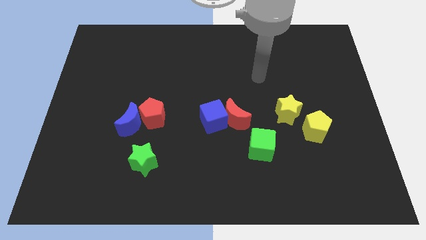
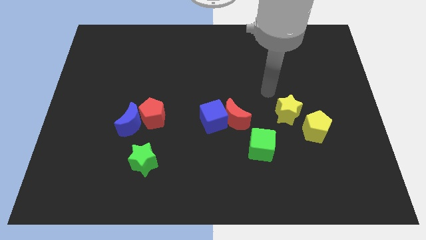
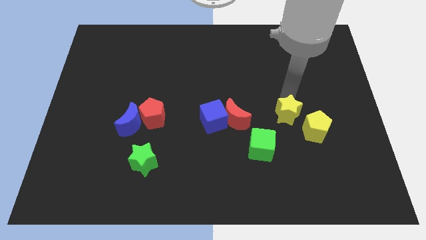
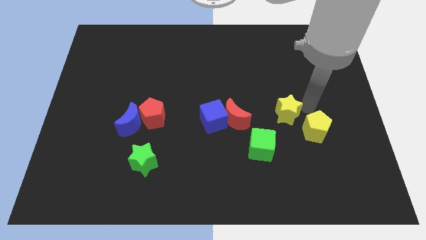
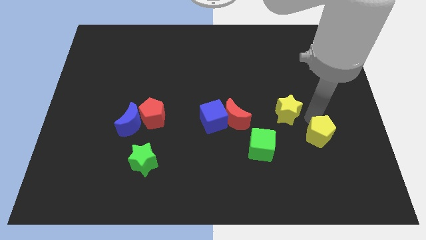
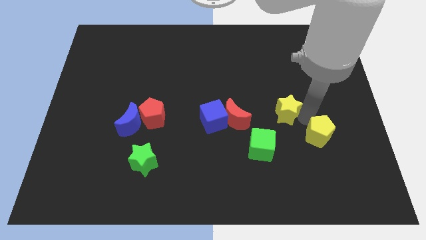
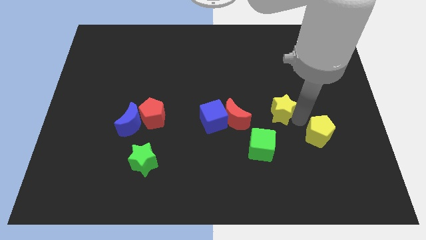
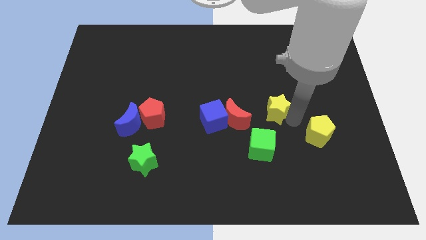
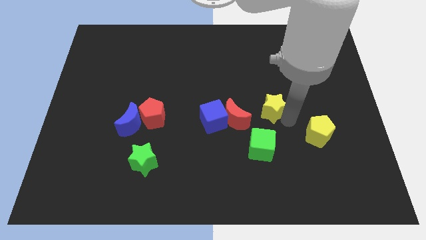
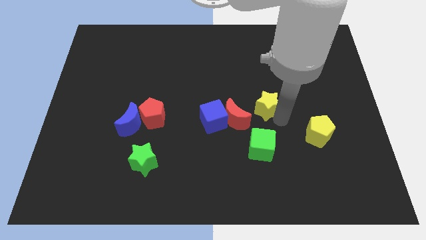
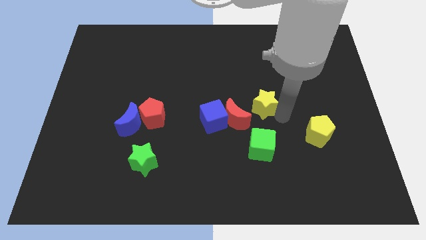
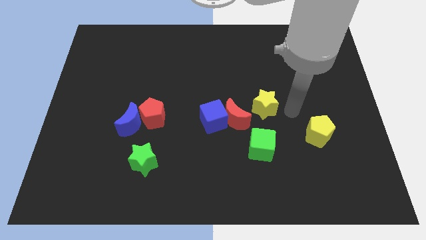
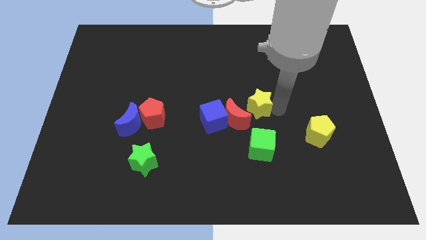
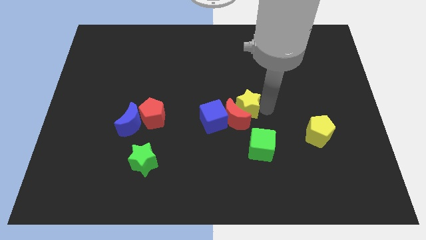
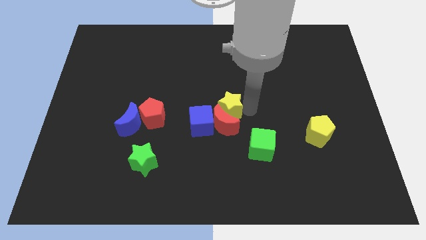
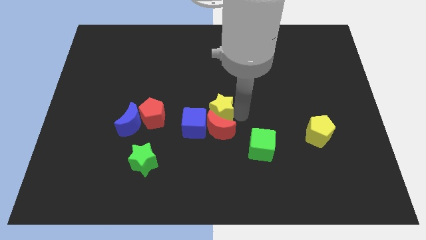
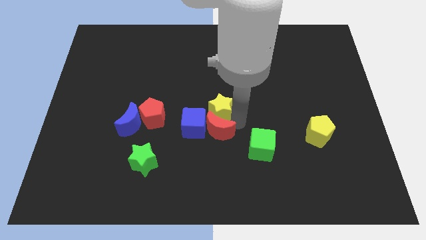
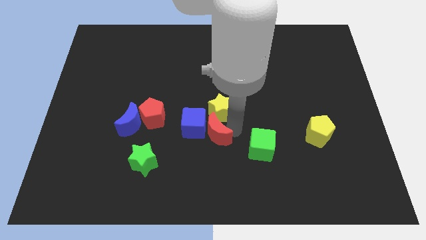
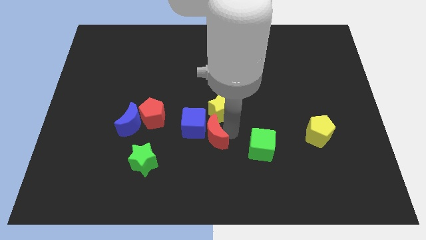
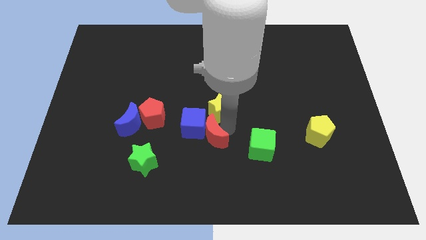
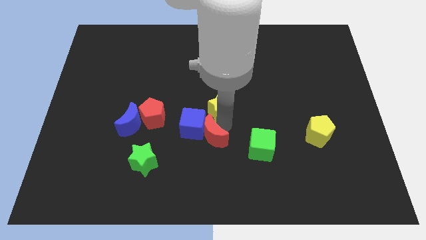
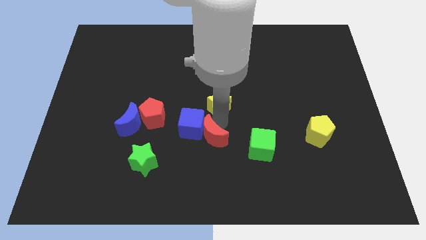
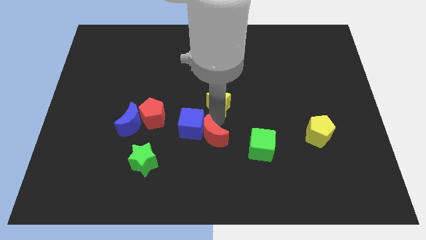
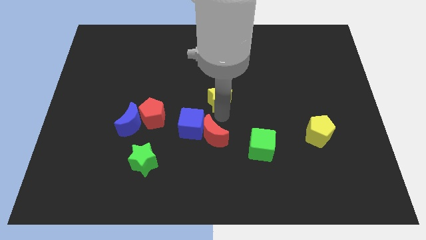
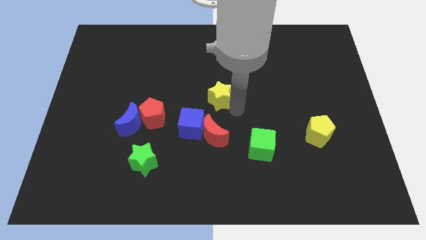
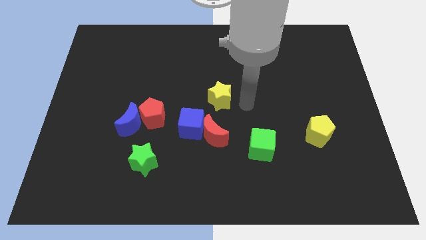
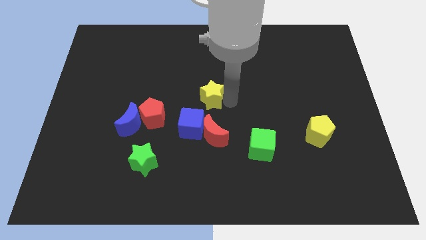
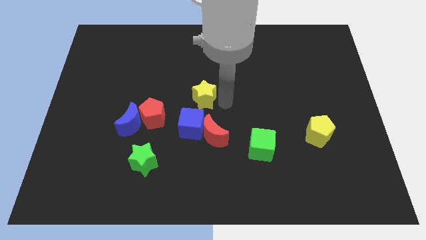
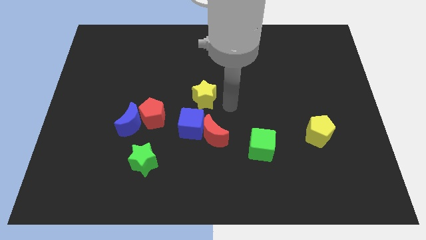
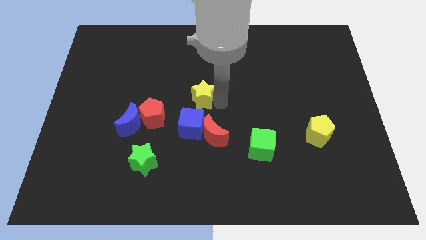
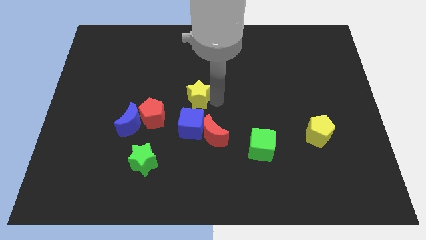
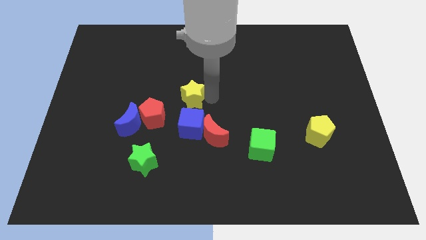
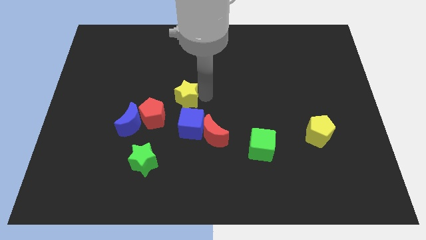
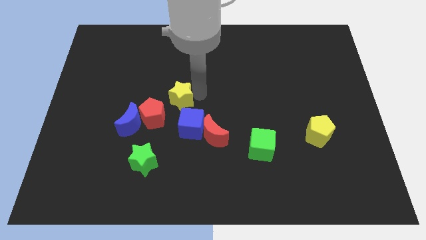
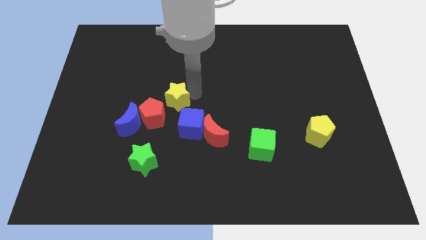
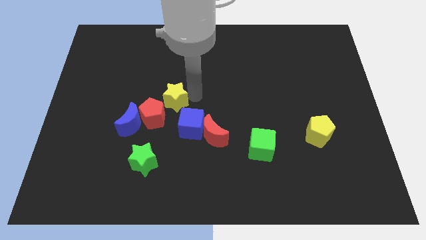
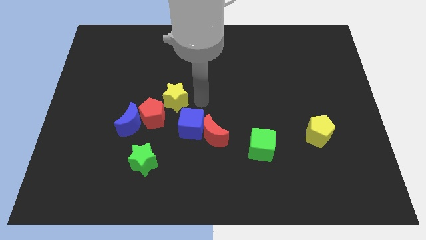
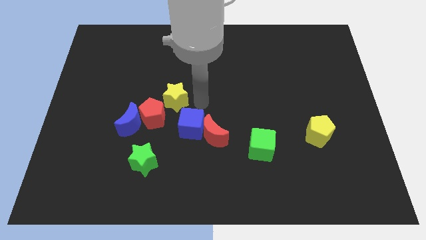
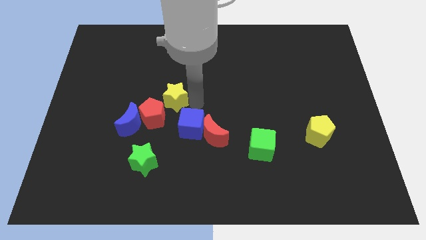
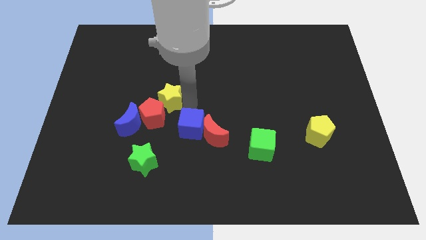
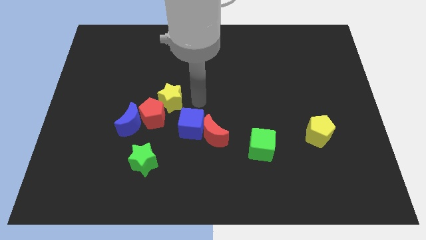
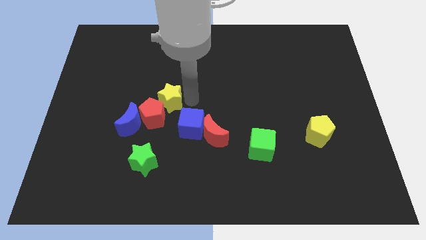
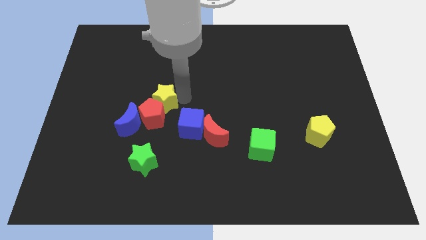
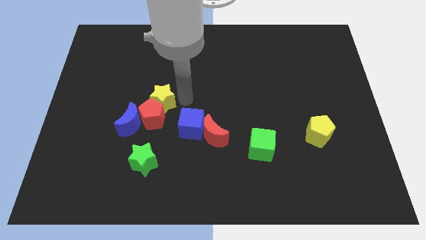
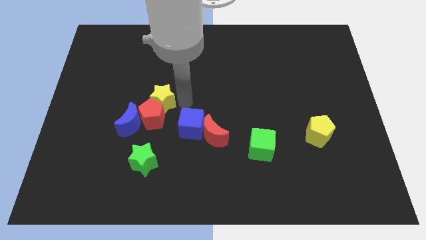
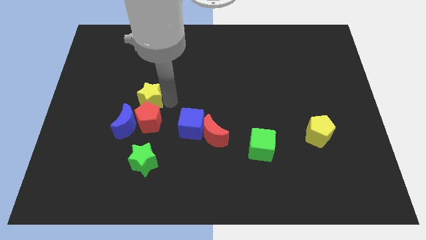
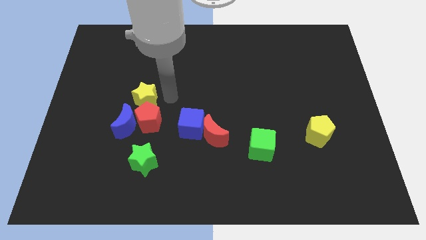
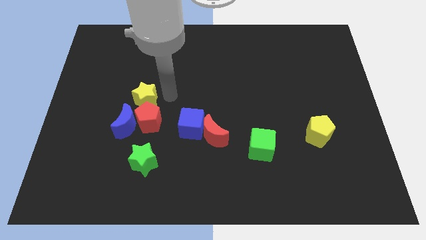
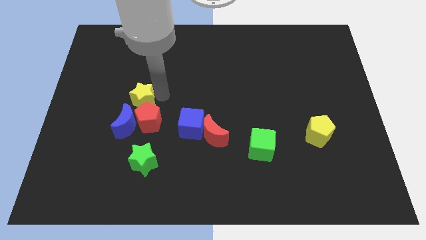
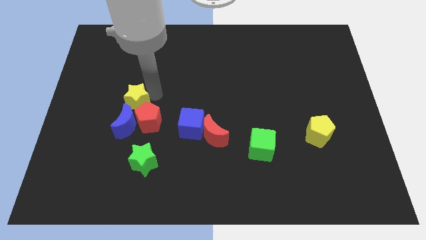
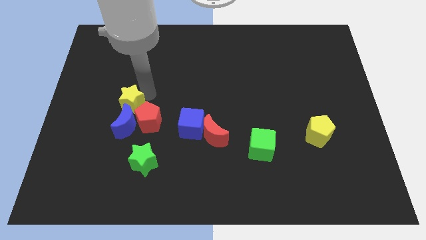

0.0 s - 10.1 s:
put the yellow star to the top left of the blue moon

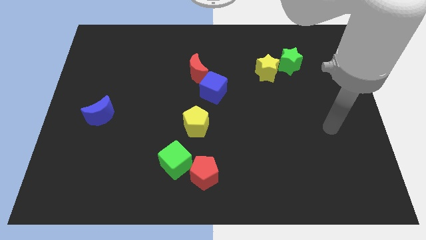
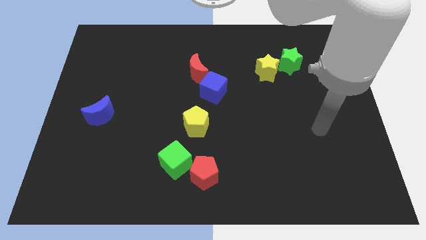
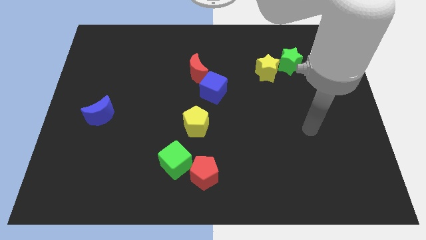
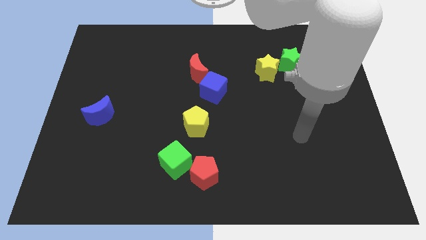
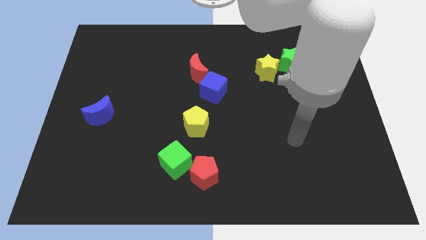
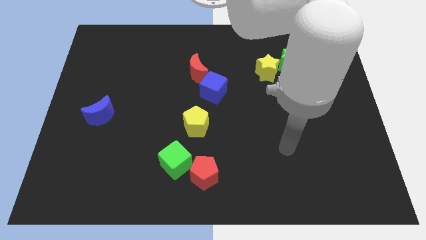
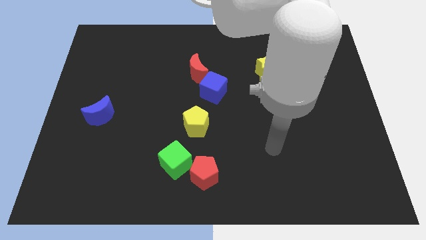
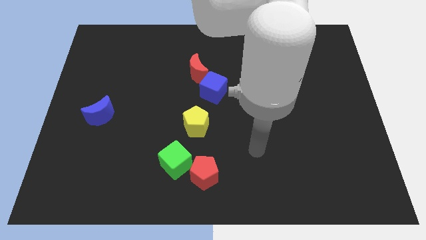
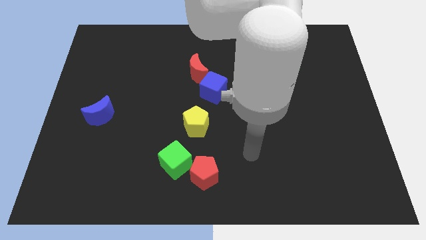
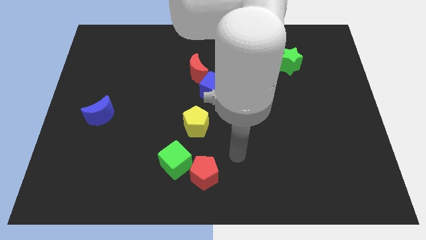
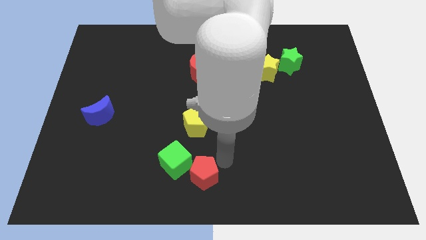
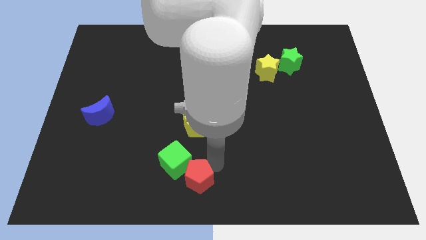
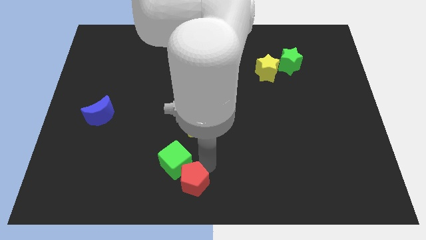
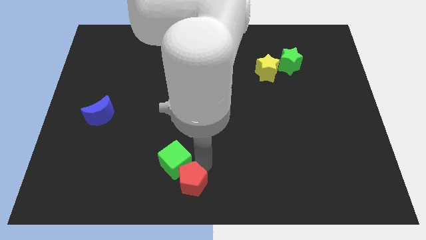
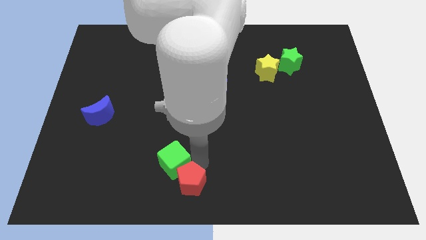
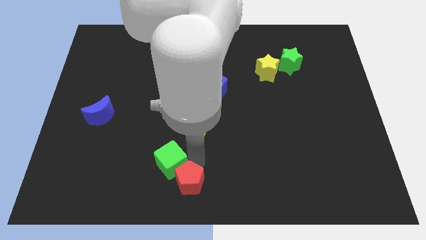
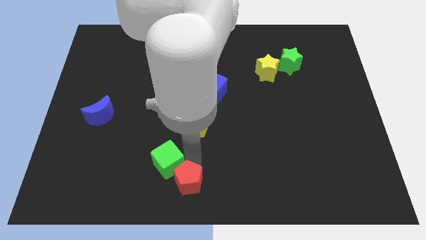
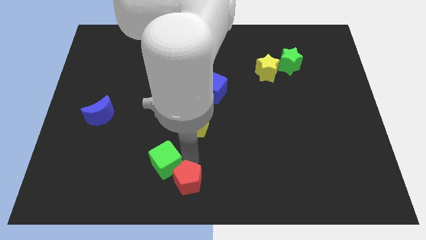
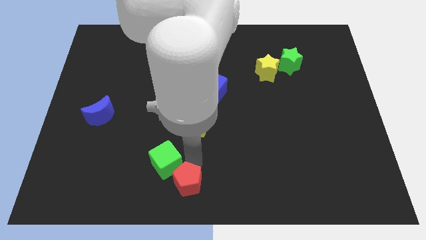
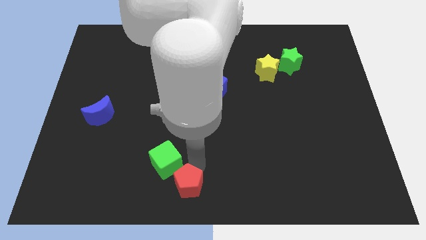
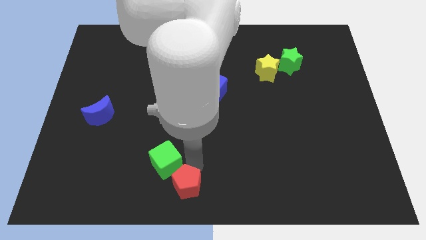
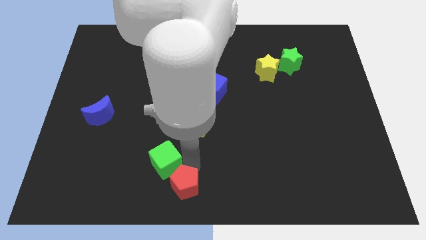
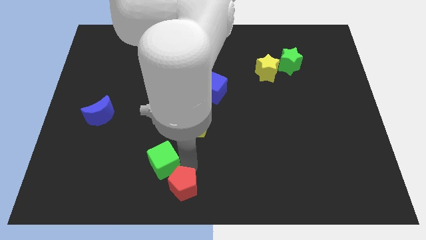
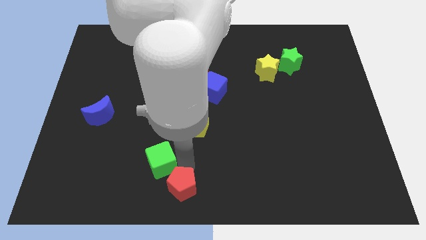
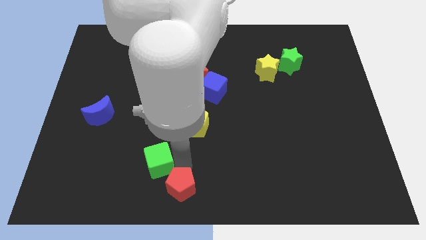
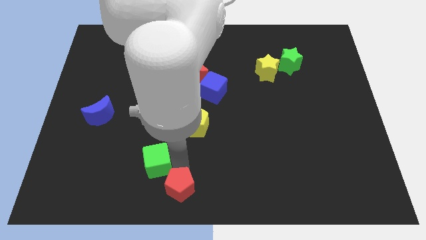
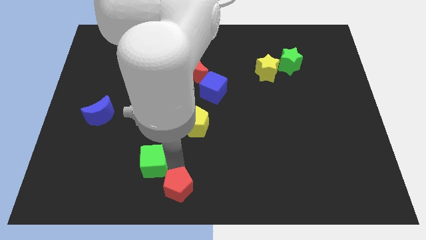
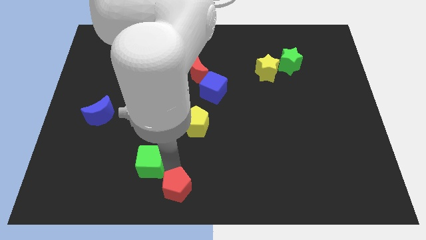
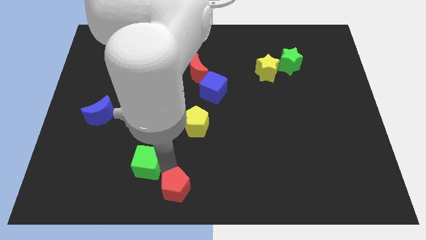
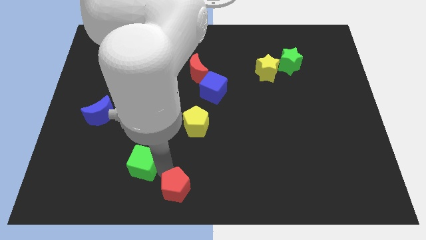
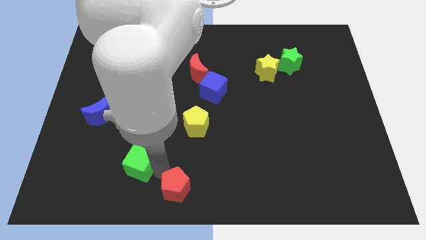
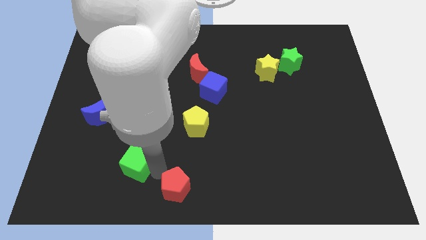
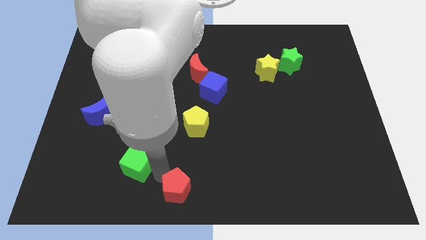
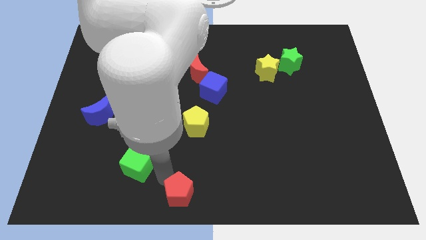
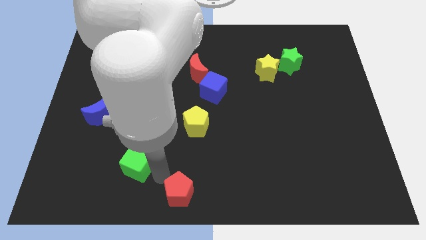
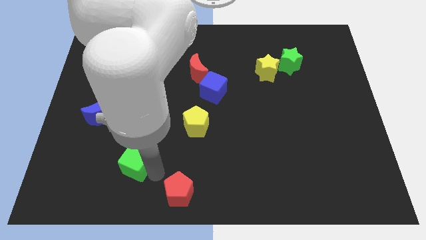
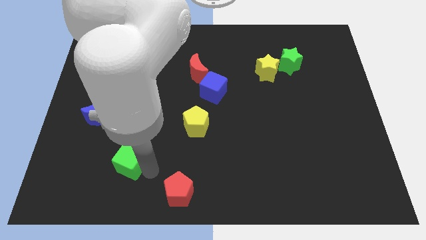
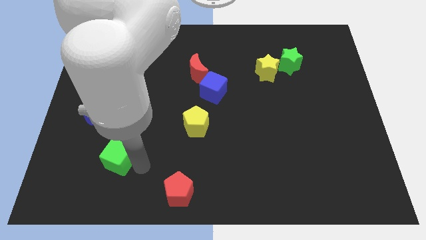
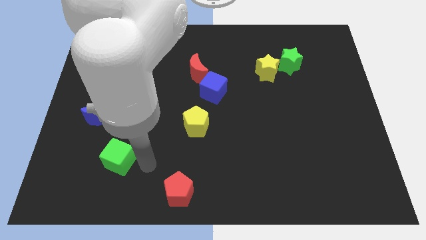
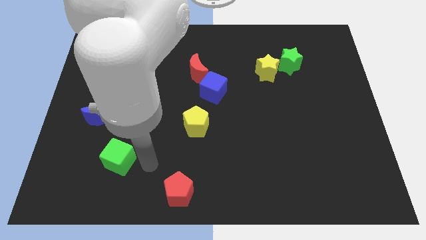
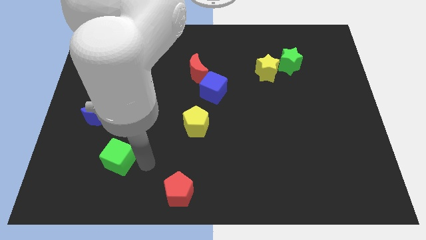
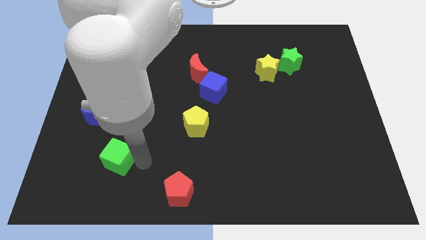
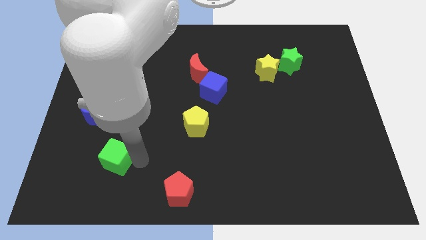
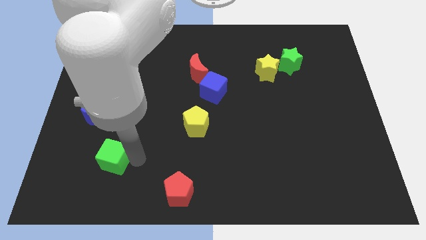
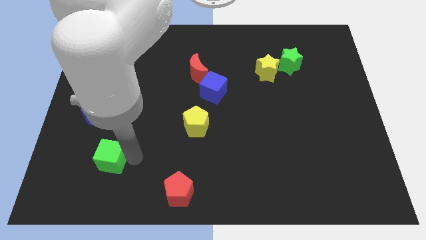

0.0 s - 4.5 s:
push the green cube to the bottom side of the blue moon
